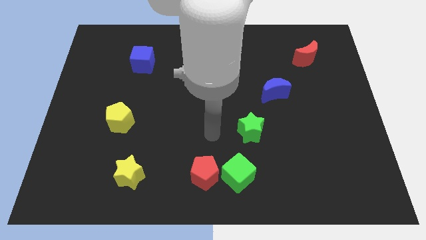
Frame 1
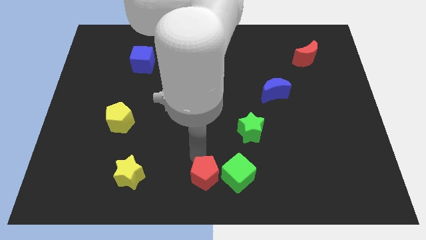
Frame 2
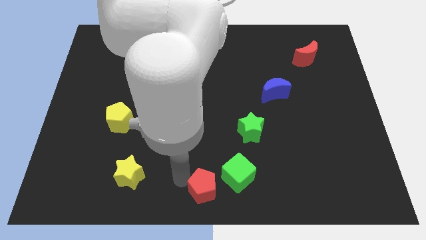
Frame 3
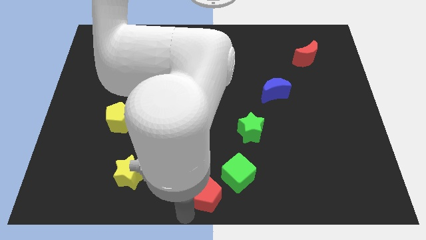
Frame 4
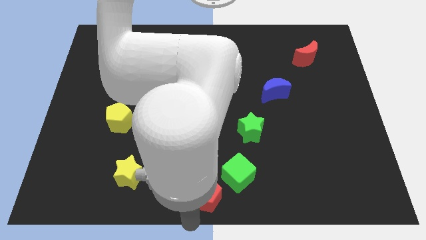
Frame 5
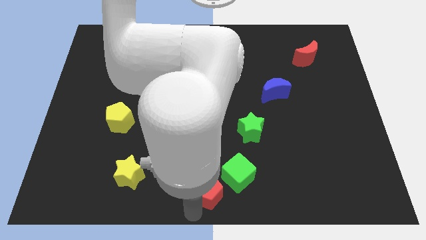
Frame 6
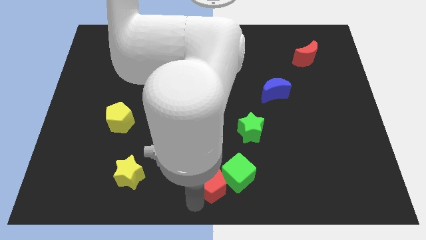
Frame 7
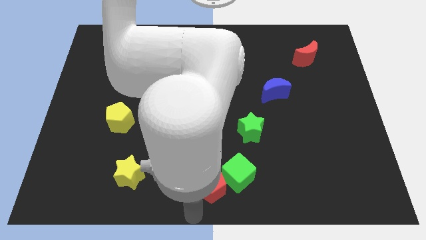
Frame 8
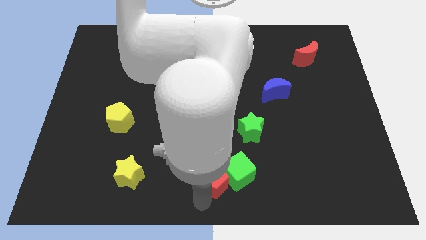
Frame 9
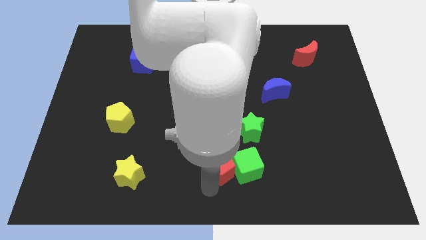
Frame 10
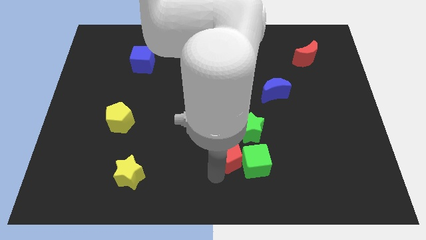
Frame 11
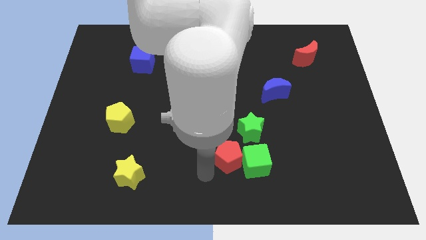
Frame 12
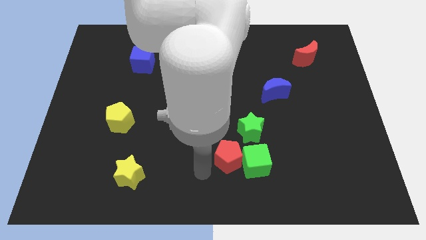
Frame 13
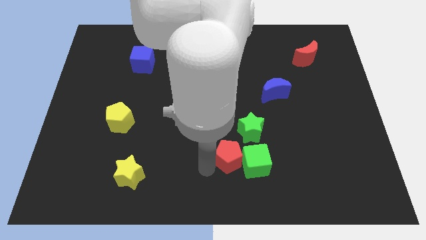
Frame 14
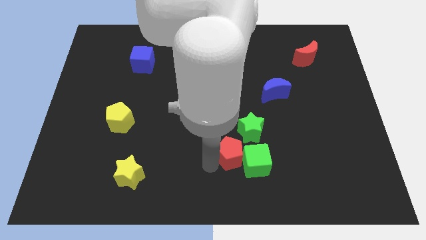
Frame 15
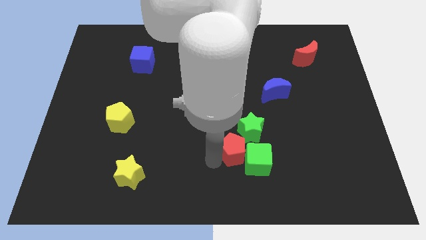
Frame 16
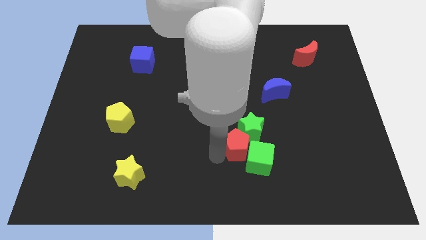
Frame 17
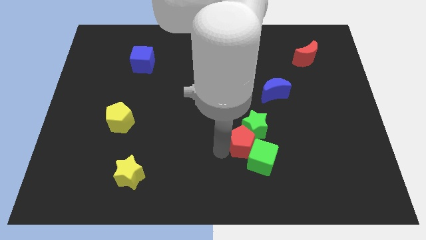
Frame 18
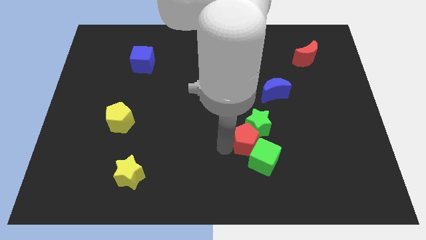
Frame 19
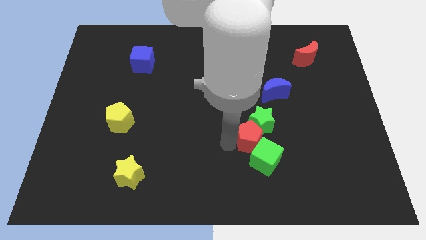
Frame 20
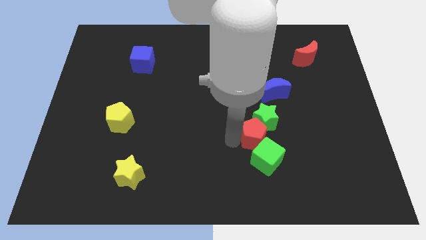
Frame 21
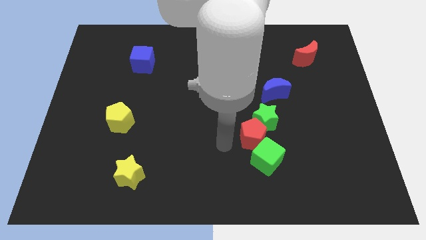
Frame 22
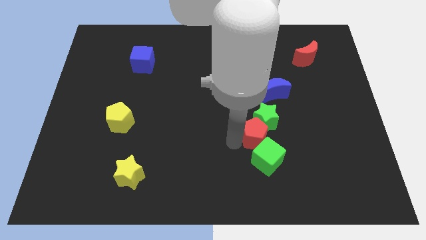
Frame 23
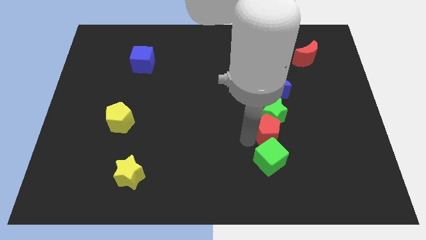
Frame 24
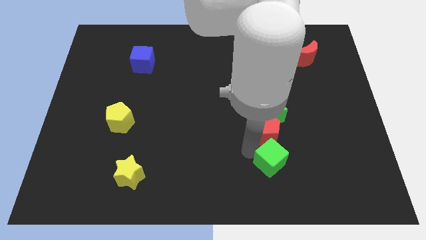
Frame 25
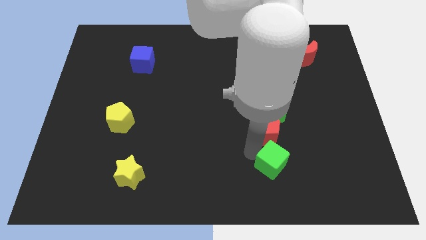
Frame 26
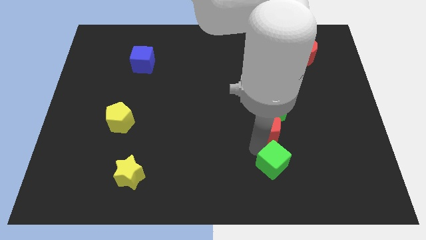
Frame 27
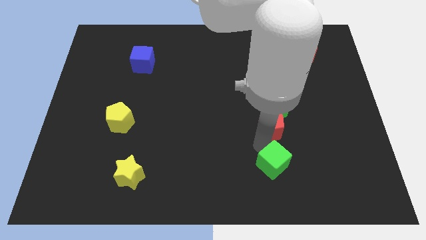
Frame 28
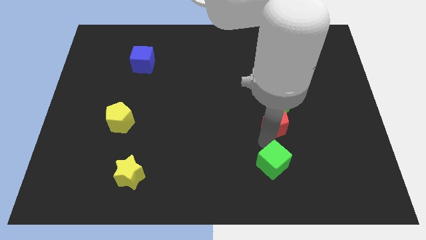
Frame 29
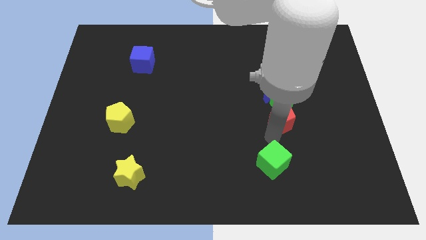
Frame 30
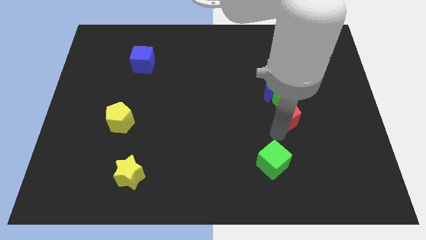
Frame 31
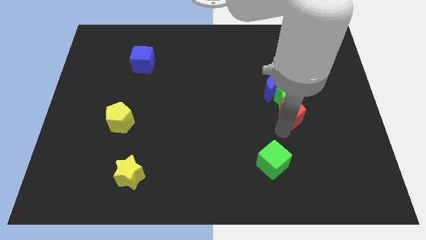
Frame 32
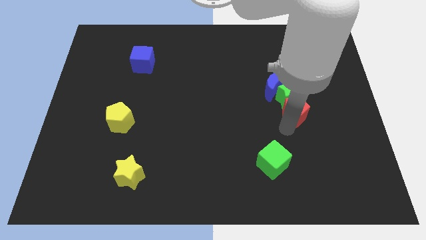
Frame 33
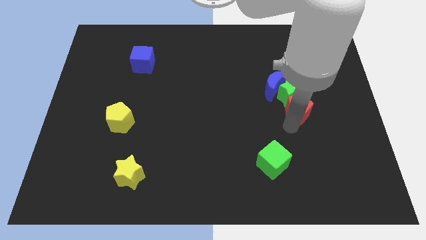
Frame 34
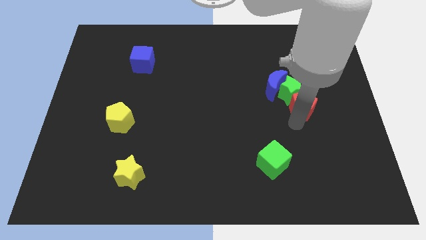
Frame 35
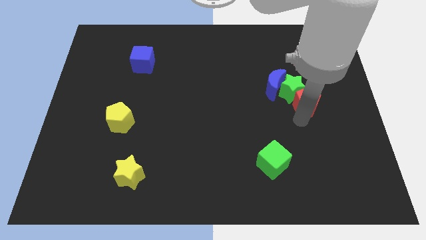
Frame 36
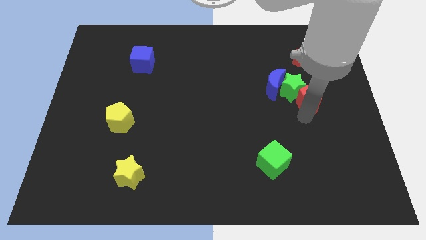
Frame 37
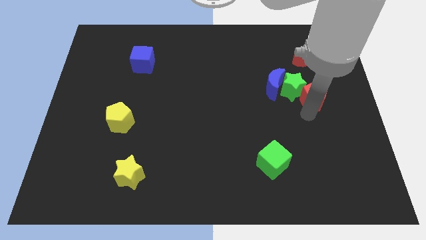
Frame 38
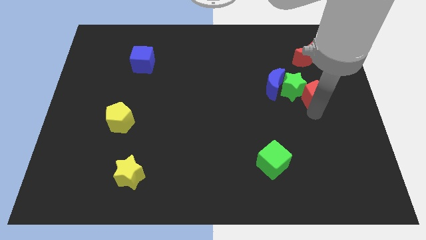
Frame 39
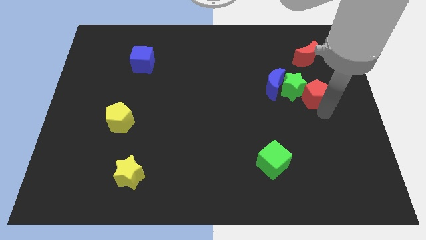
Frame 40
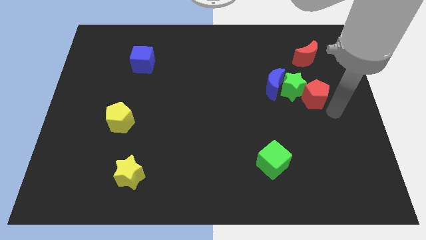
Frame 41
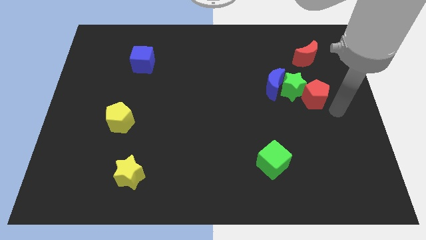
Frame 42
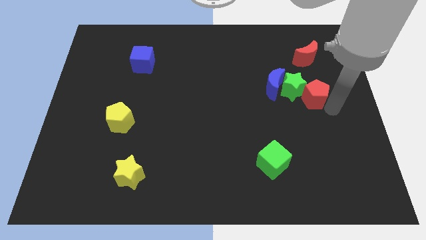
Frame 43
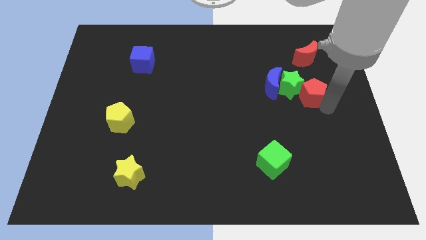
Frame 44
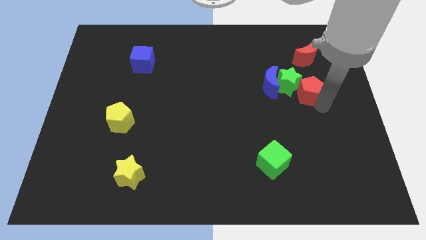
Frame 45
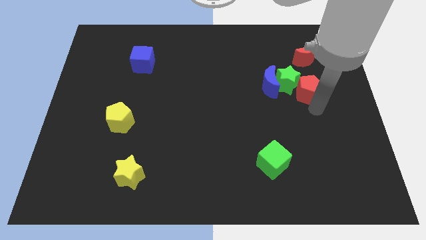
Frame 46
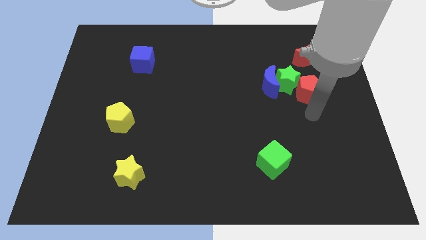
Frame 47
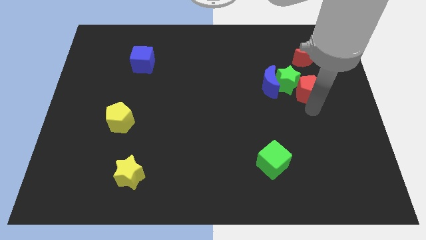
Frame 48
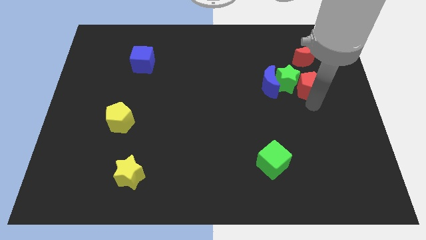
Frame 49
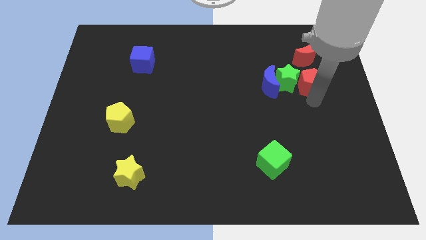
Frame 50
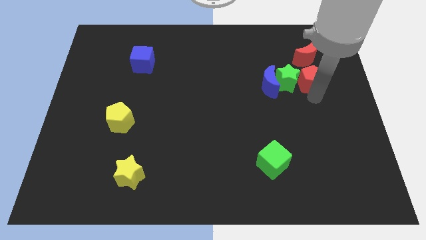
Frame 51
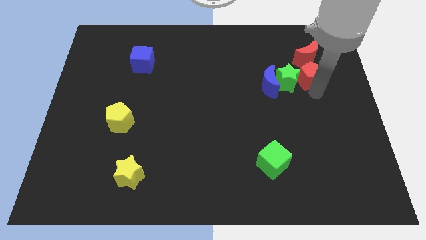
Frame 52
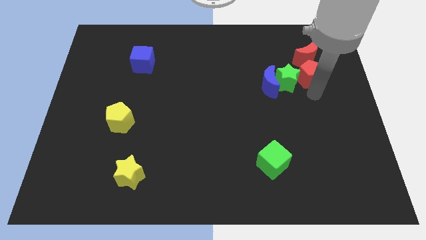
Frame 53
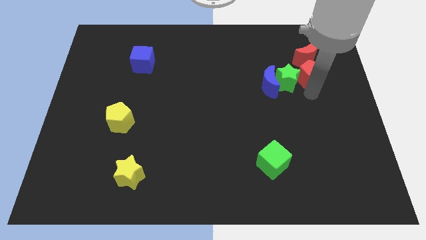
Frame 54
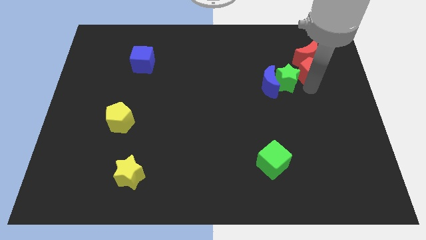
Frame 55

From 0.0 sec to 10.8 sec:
put the red pentagon close to the red moon

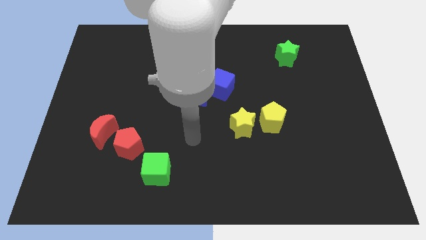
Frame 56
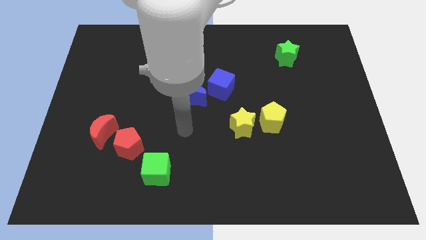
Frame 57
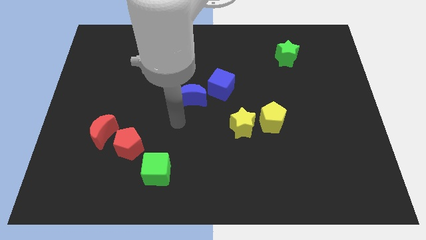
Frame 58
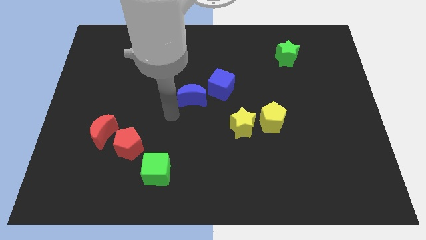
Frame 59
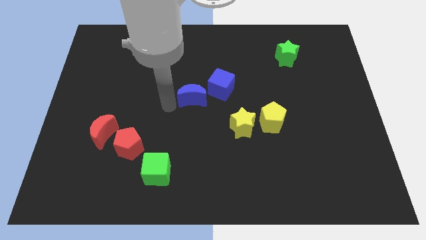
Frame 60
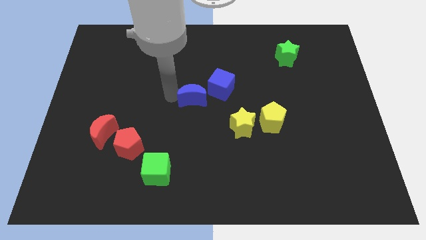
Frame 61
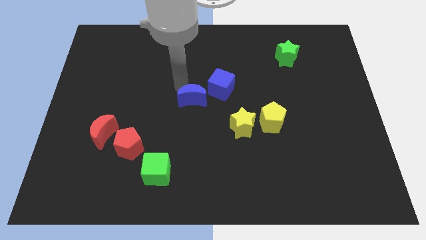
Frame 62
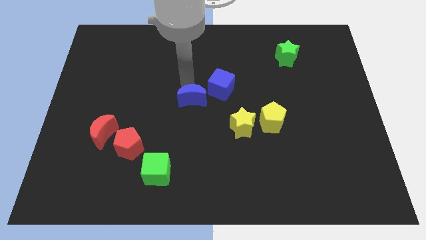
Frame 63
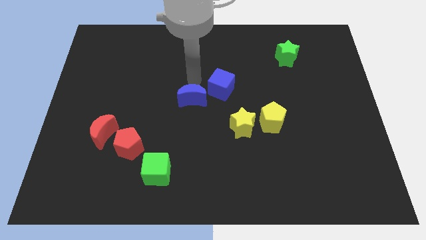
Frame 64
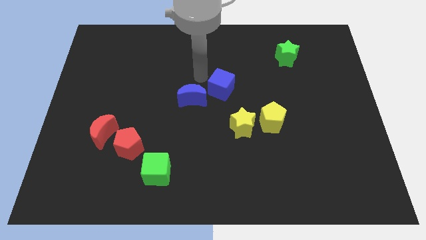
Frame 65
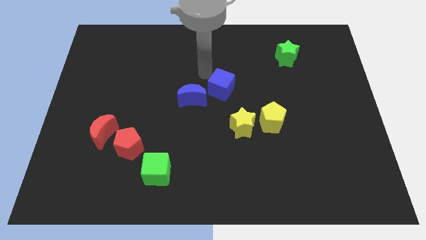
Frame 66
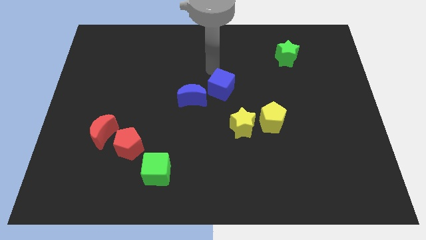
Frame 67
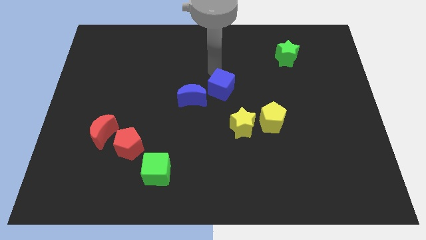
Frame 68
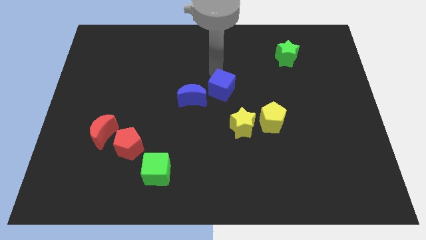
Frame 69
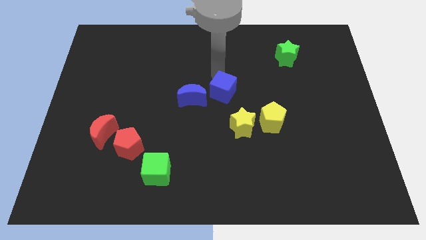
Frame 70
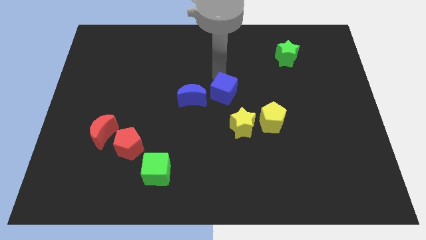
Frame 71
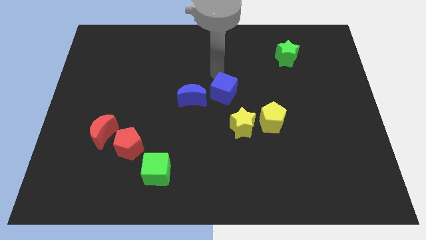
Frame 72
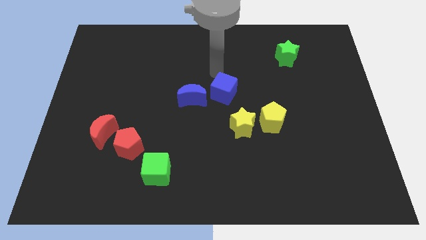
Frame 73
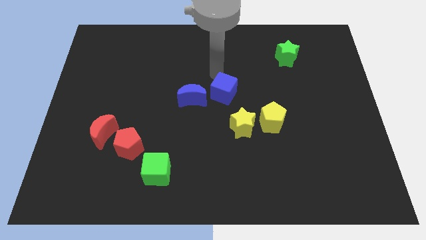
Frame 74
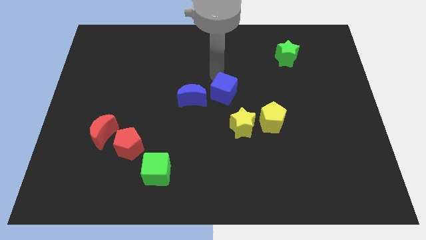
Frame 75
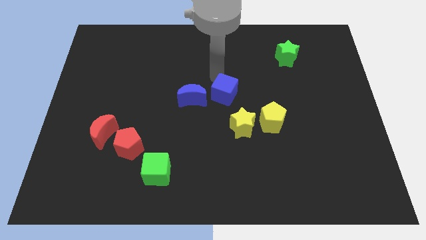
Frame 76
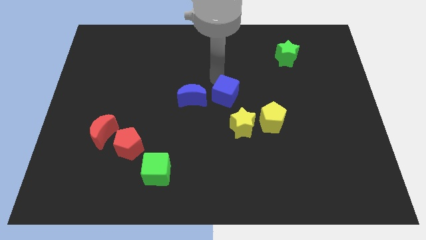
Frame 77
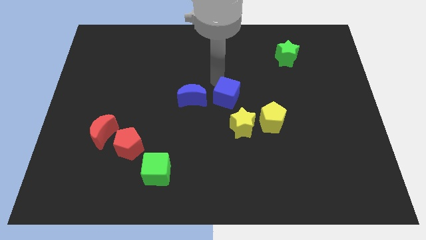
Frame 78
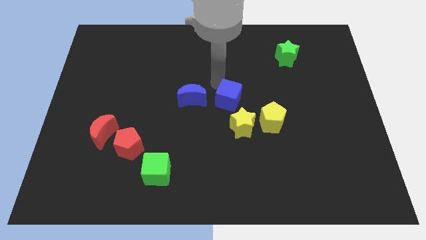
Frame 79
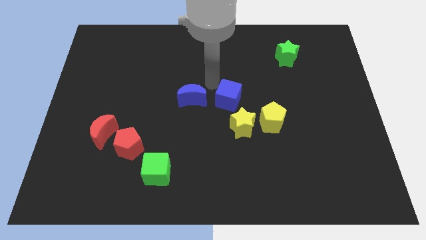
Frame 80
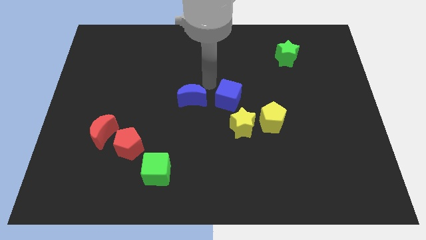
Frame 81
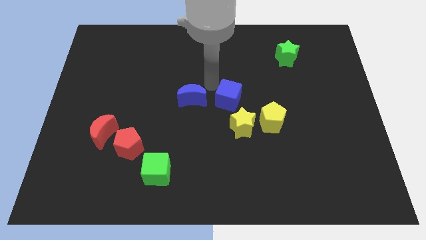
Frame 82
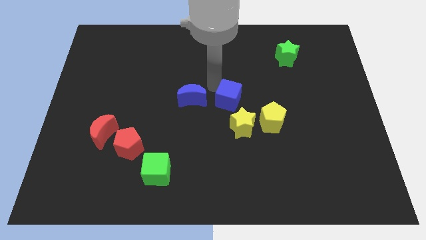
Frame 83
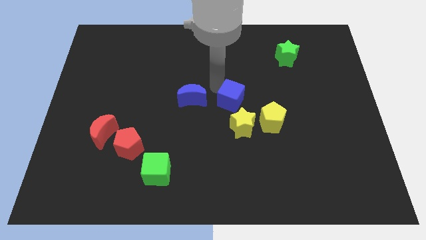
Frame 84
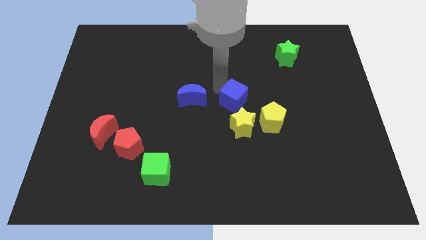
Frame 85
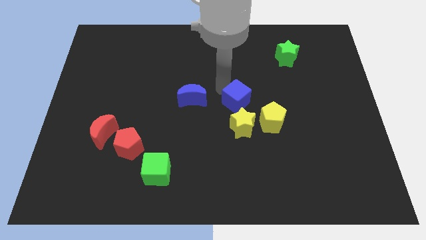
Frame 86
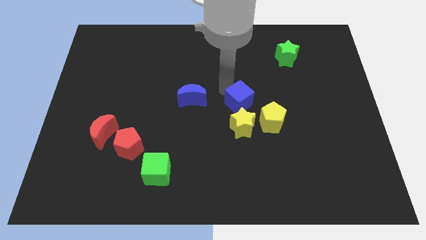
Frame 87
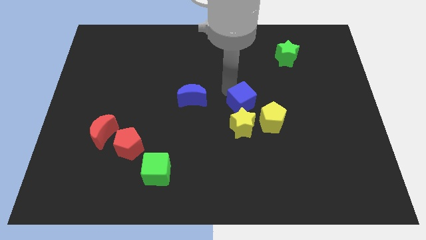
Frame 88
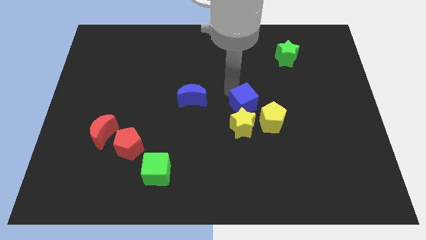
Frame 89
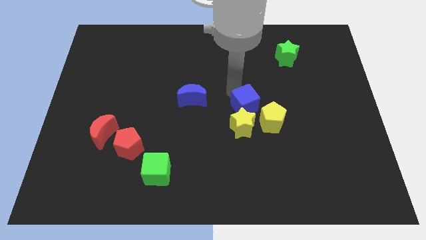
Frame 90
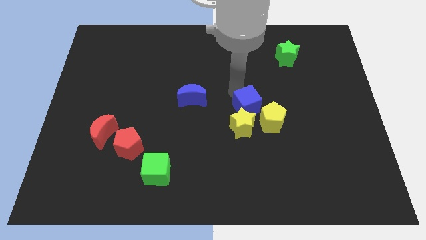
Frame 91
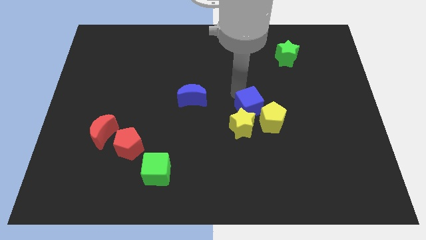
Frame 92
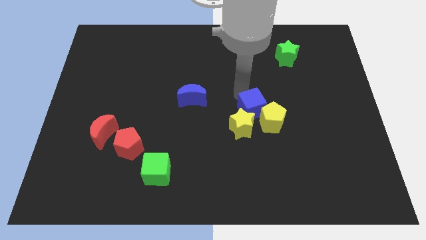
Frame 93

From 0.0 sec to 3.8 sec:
move the blue cube close to the yellow pentagon
